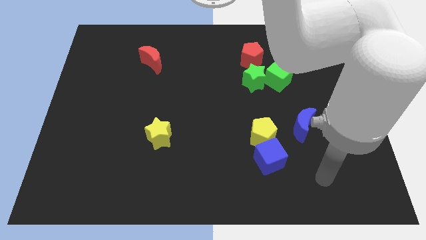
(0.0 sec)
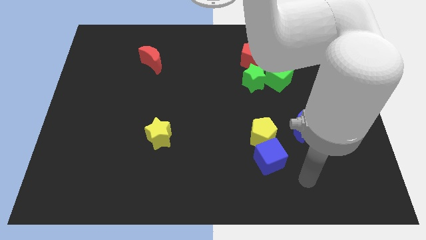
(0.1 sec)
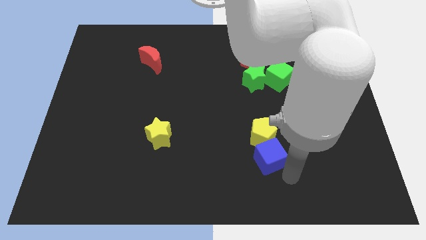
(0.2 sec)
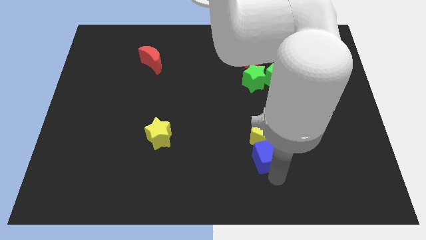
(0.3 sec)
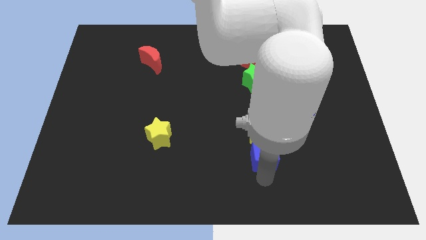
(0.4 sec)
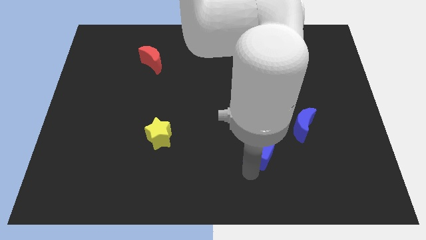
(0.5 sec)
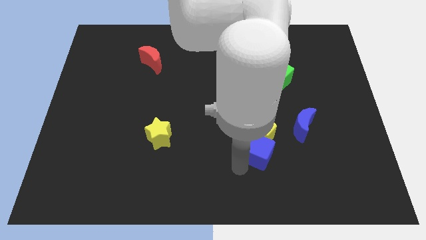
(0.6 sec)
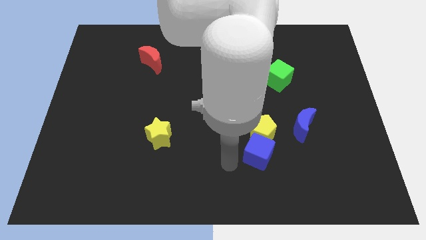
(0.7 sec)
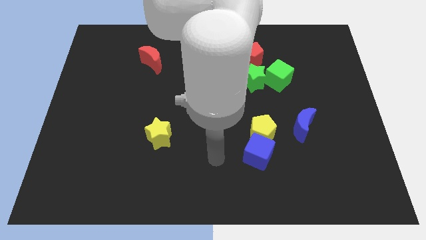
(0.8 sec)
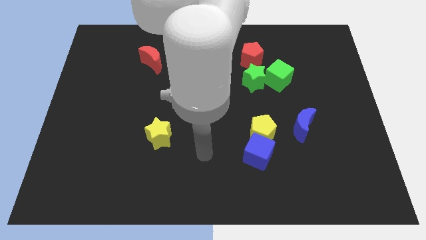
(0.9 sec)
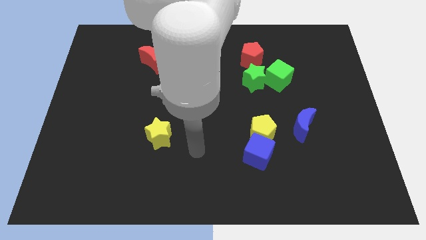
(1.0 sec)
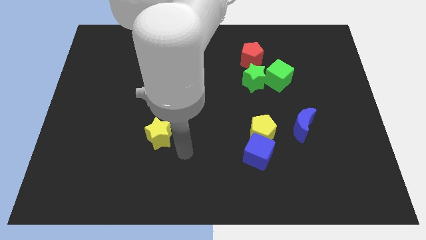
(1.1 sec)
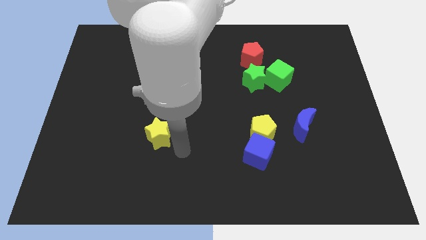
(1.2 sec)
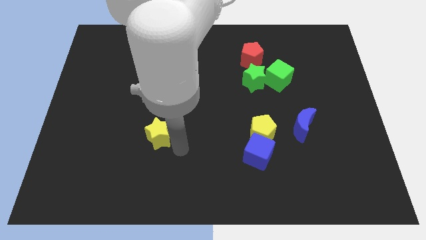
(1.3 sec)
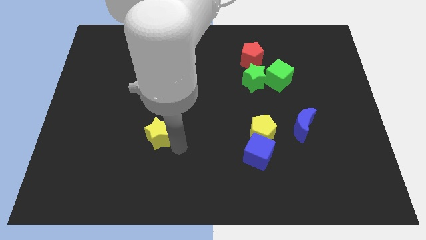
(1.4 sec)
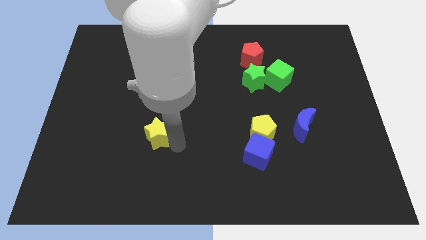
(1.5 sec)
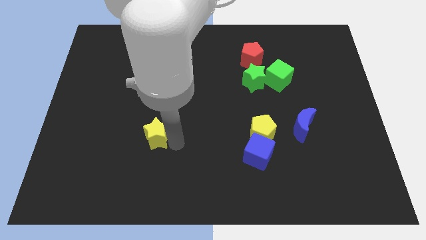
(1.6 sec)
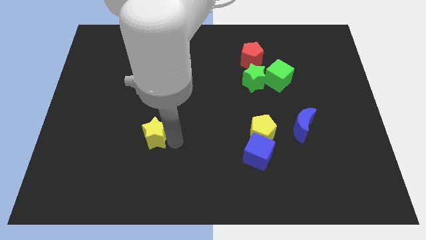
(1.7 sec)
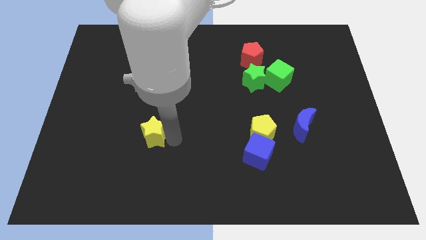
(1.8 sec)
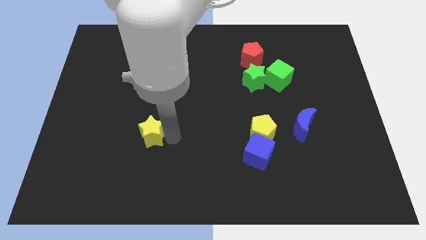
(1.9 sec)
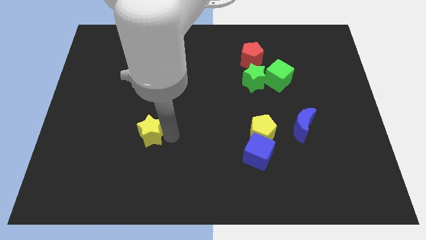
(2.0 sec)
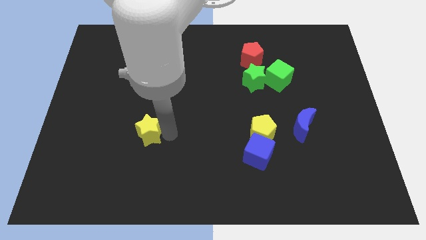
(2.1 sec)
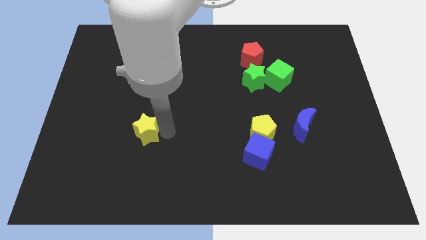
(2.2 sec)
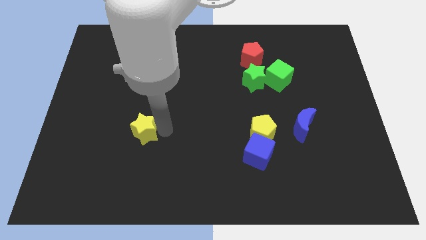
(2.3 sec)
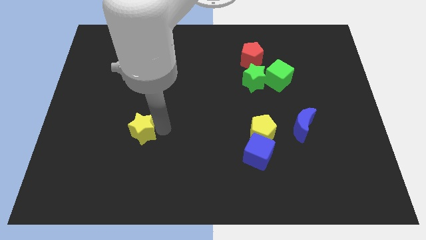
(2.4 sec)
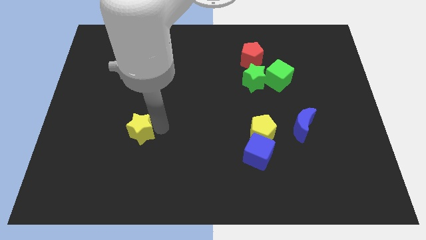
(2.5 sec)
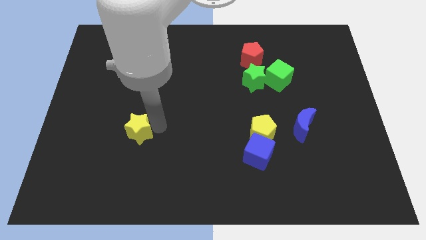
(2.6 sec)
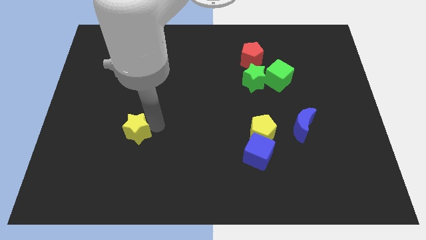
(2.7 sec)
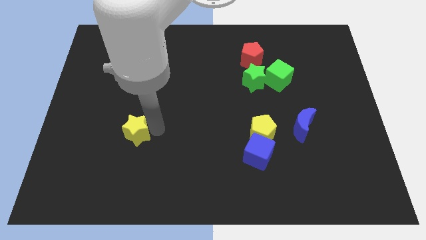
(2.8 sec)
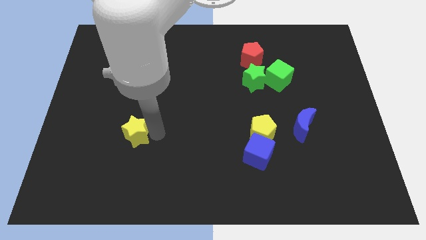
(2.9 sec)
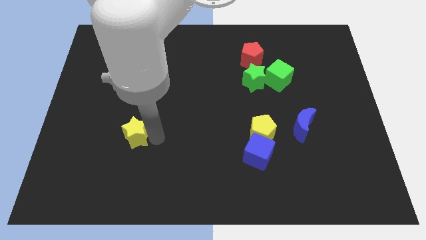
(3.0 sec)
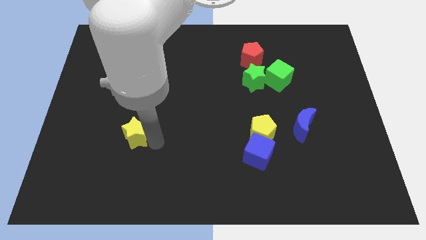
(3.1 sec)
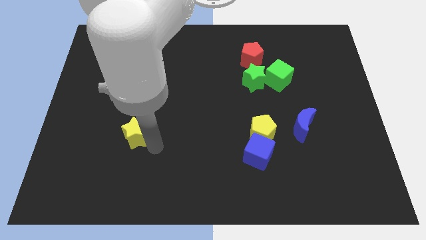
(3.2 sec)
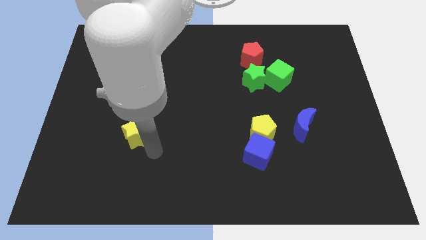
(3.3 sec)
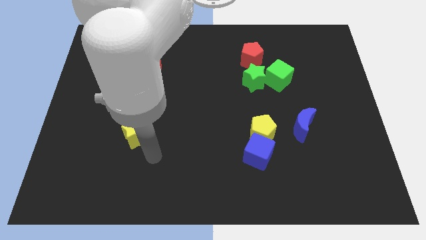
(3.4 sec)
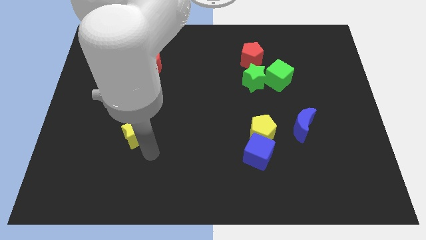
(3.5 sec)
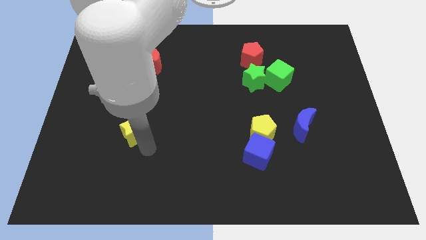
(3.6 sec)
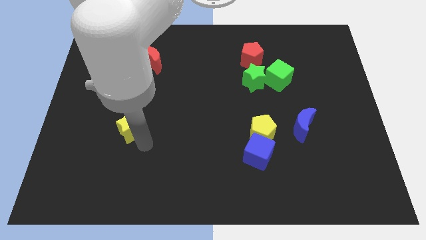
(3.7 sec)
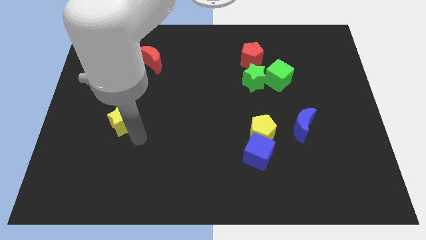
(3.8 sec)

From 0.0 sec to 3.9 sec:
push the yellow star upwards and to the left diagonally slightly

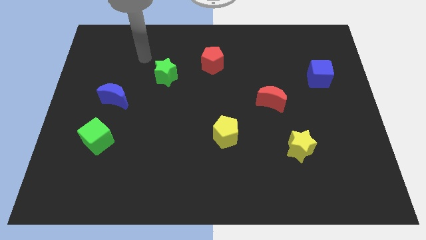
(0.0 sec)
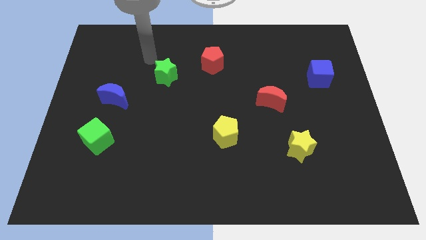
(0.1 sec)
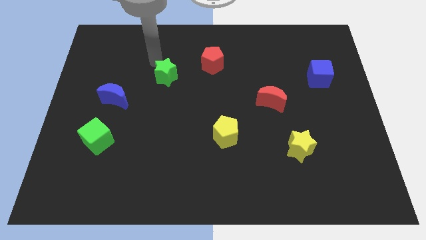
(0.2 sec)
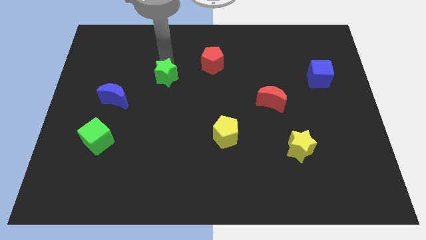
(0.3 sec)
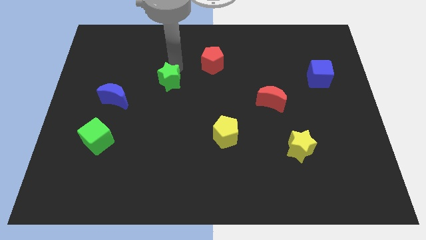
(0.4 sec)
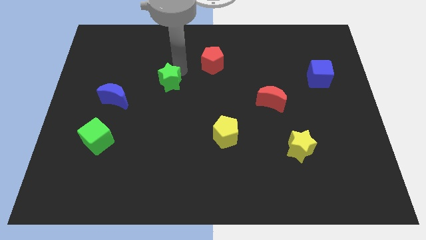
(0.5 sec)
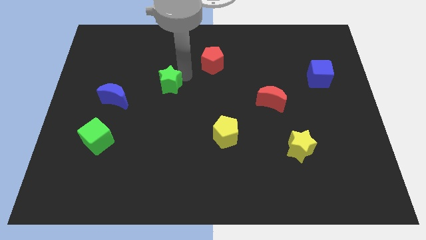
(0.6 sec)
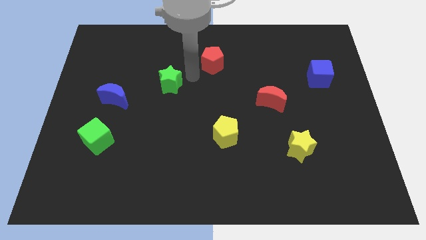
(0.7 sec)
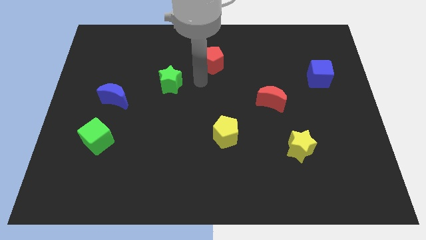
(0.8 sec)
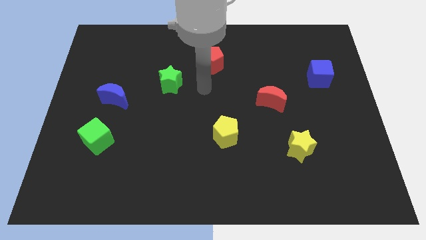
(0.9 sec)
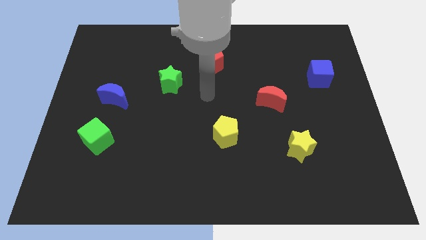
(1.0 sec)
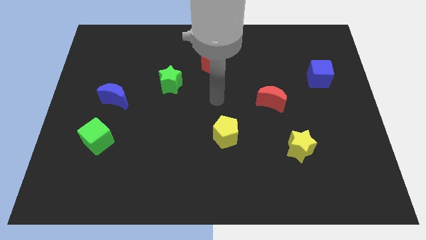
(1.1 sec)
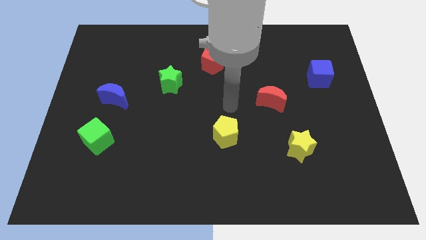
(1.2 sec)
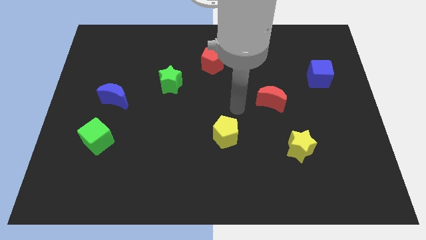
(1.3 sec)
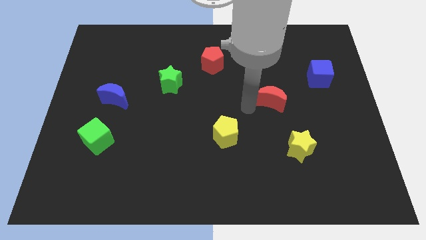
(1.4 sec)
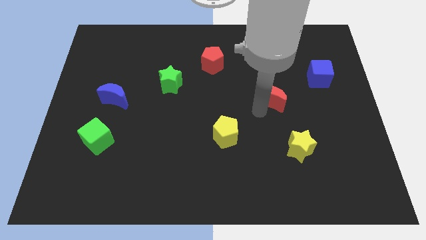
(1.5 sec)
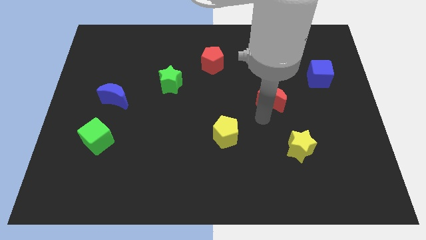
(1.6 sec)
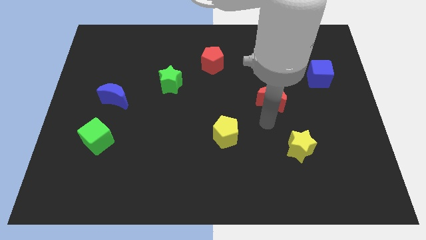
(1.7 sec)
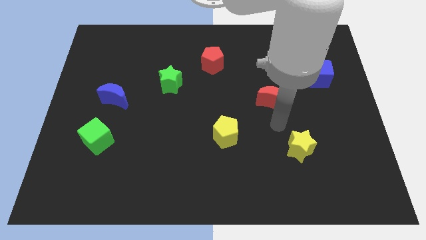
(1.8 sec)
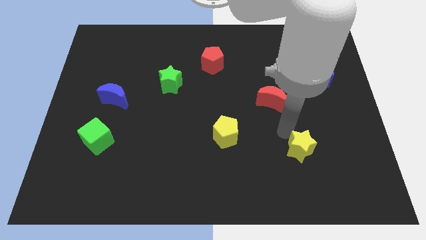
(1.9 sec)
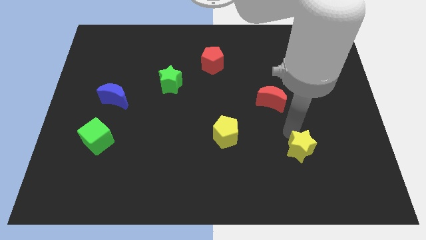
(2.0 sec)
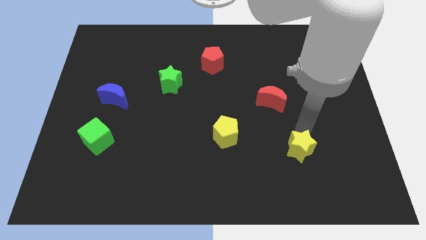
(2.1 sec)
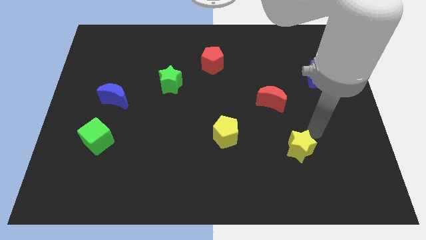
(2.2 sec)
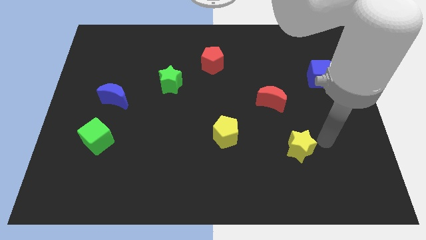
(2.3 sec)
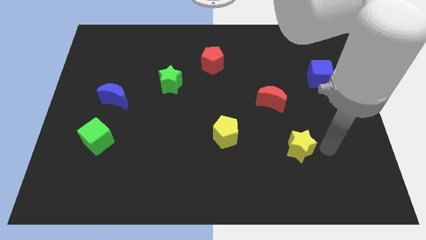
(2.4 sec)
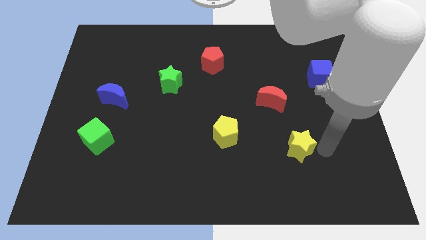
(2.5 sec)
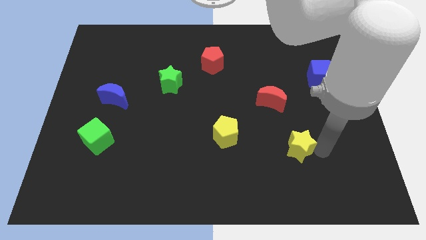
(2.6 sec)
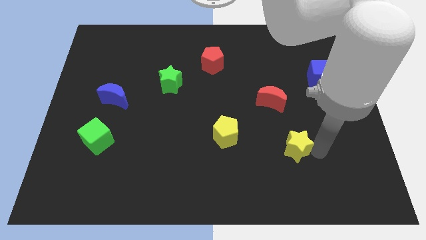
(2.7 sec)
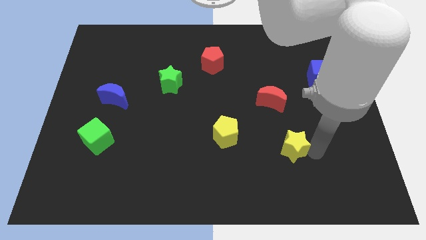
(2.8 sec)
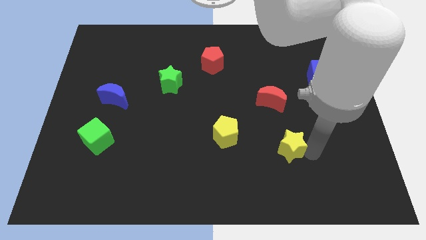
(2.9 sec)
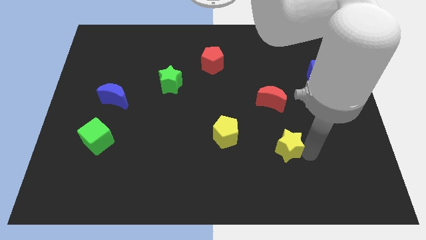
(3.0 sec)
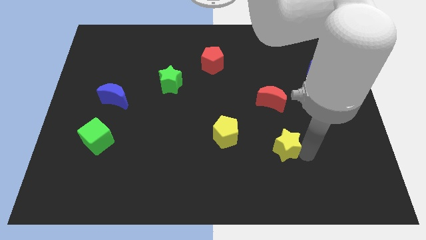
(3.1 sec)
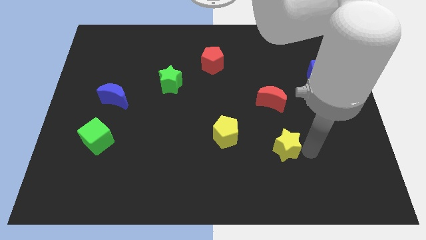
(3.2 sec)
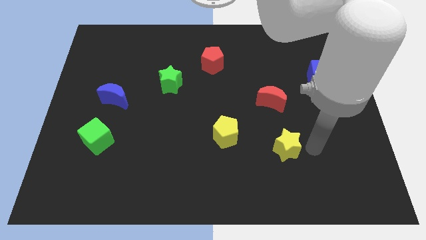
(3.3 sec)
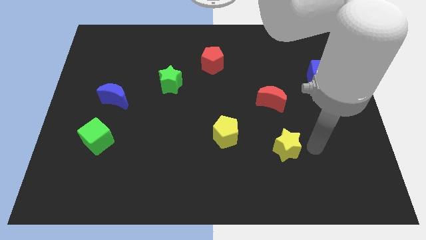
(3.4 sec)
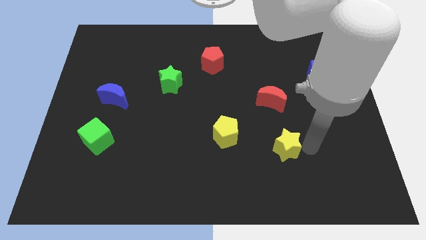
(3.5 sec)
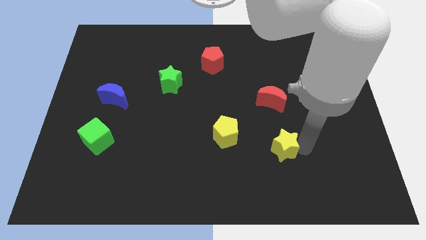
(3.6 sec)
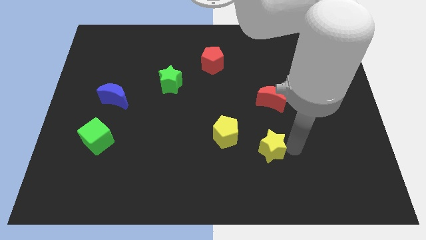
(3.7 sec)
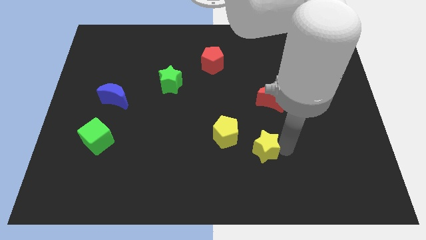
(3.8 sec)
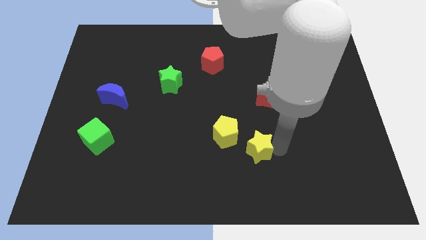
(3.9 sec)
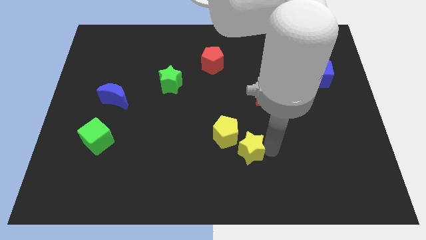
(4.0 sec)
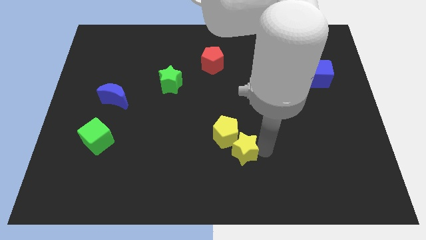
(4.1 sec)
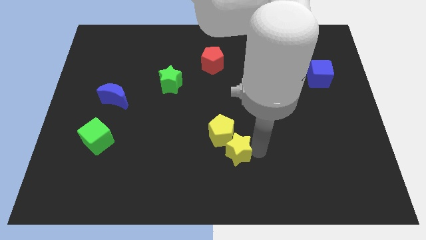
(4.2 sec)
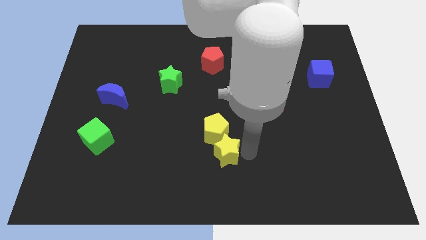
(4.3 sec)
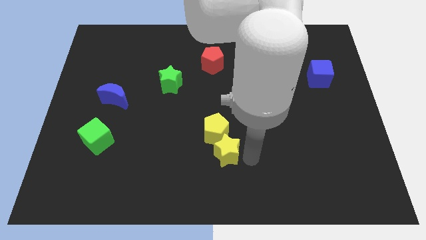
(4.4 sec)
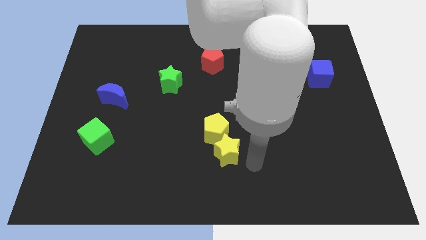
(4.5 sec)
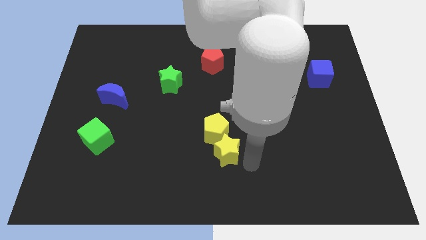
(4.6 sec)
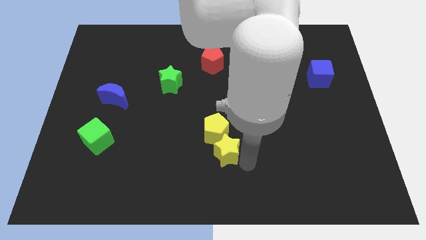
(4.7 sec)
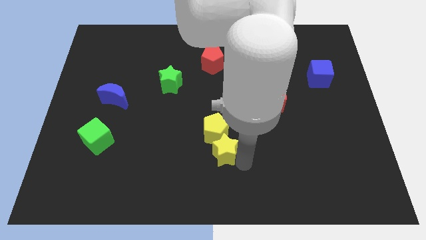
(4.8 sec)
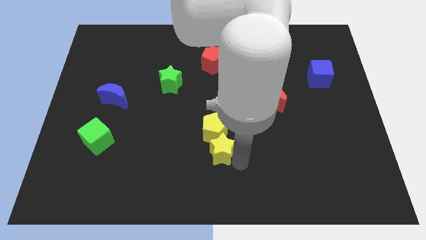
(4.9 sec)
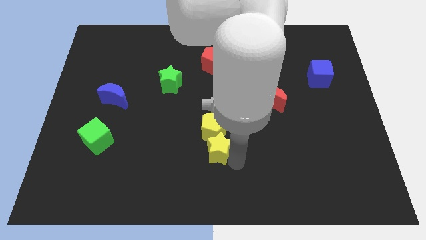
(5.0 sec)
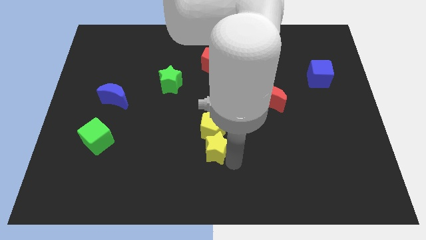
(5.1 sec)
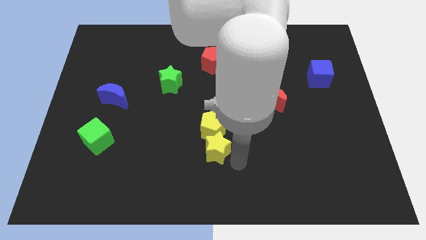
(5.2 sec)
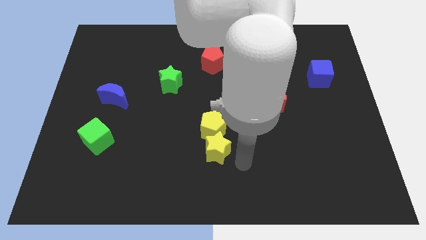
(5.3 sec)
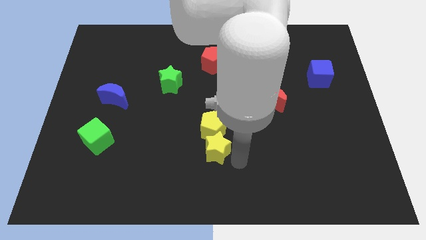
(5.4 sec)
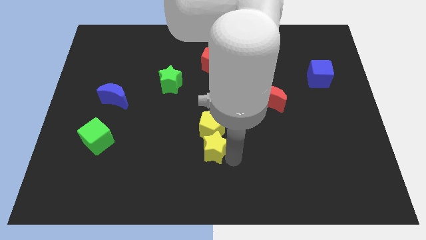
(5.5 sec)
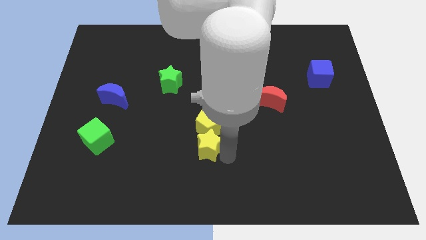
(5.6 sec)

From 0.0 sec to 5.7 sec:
push the yellow star left
